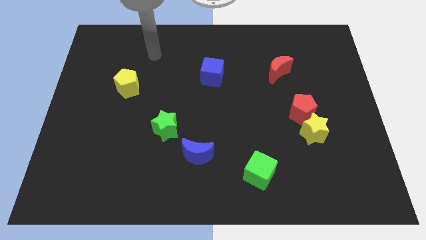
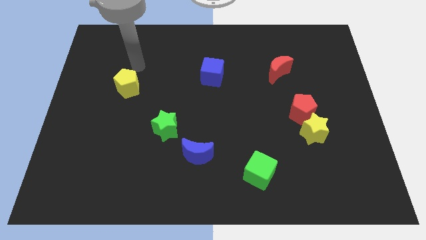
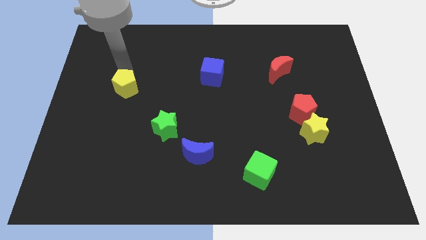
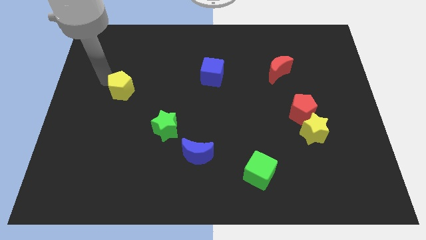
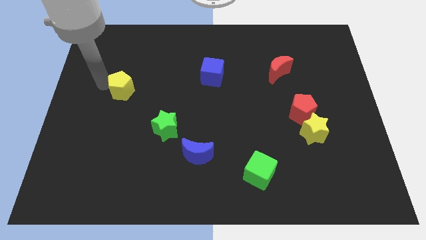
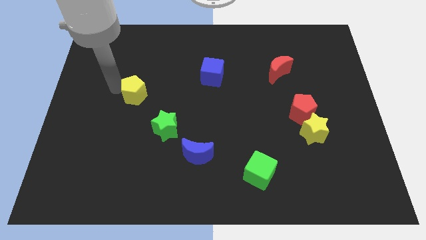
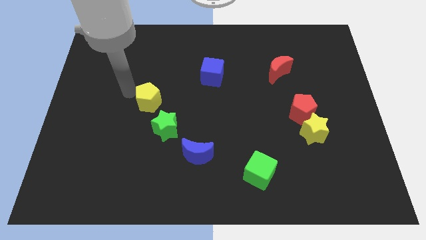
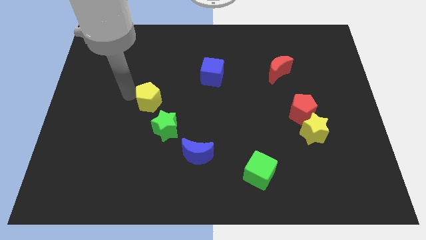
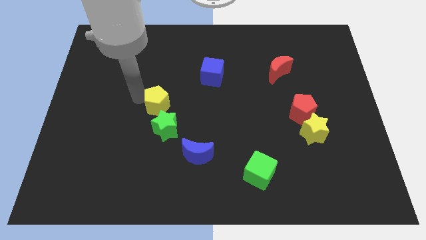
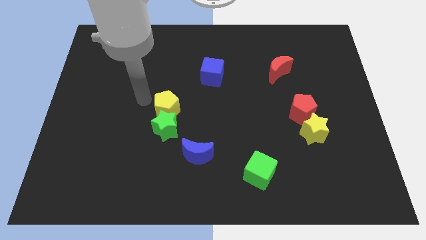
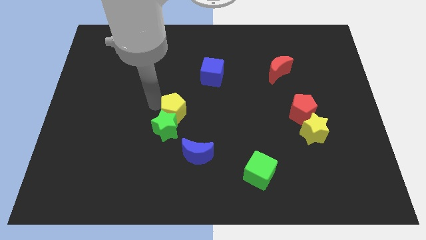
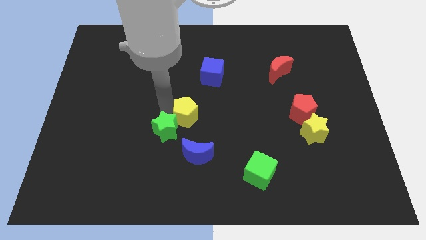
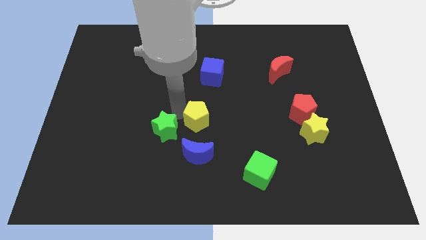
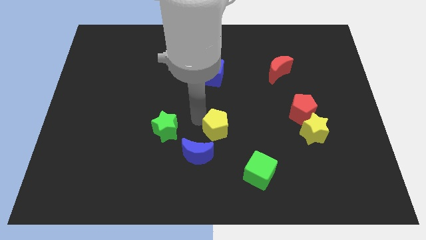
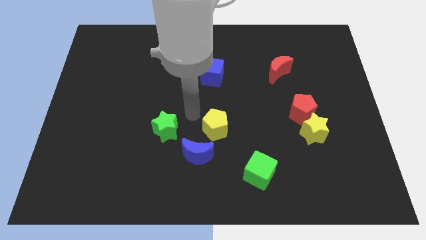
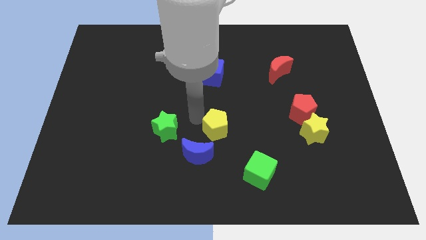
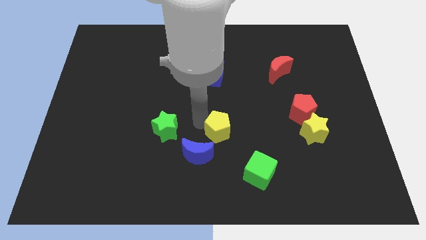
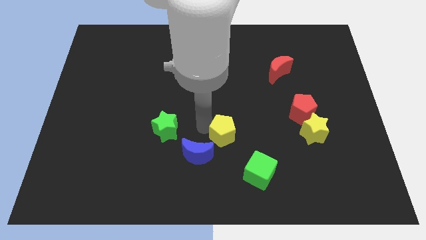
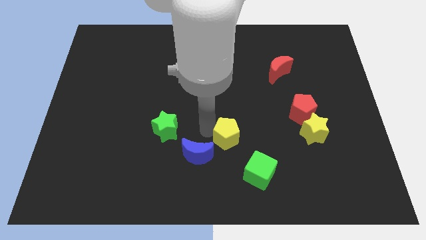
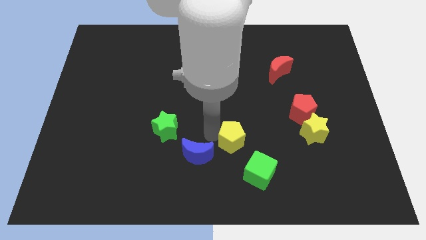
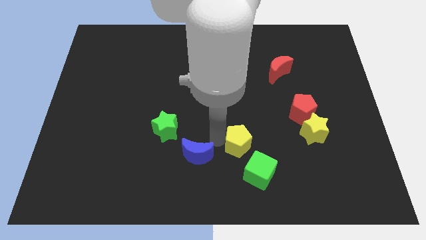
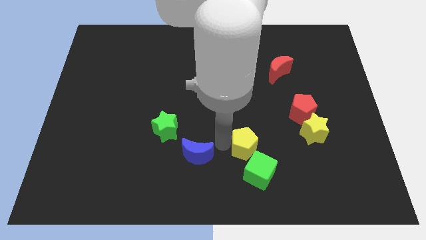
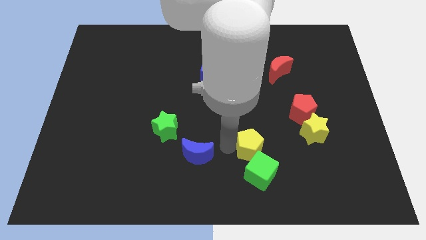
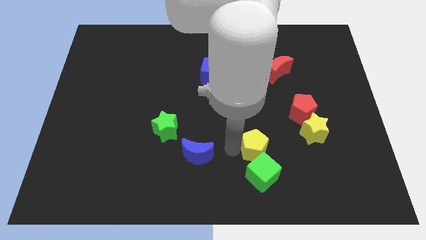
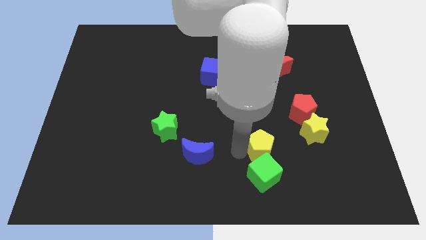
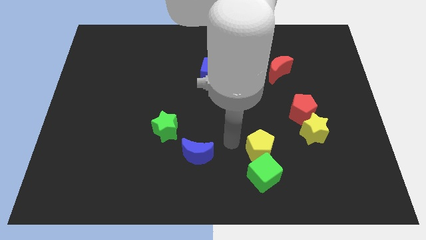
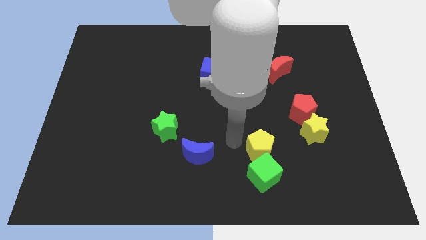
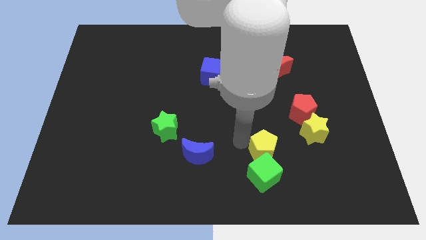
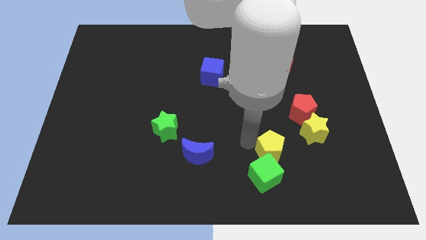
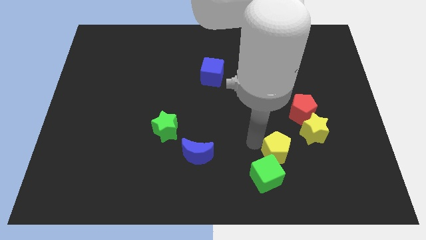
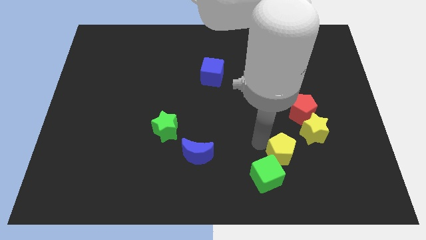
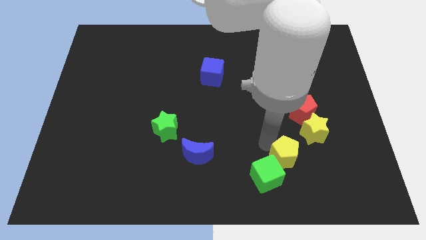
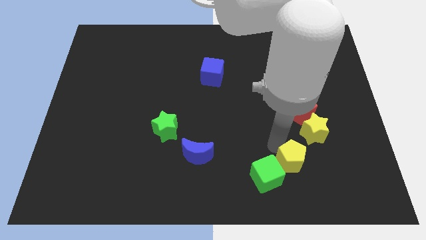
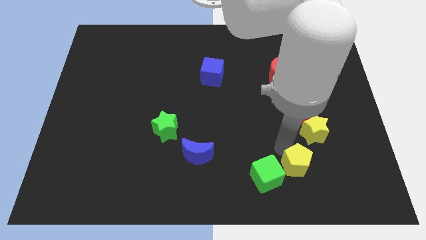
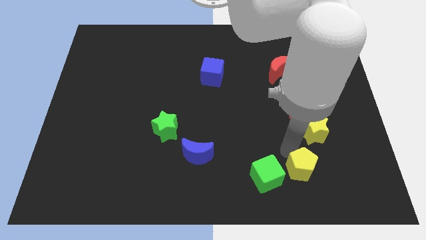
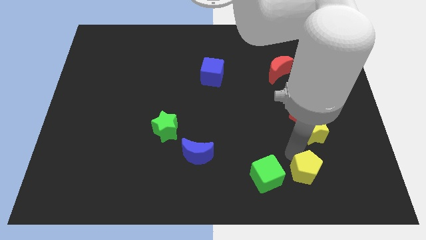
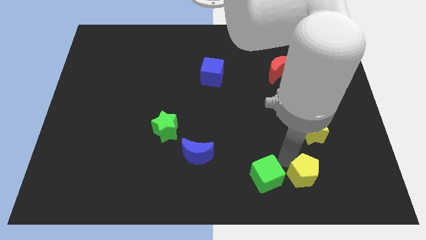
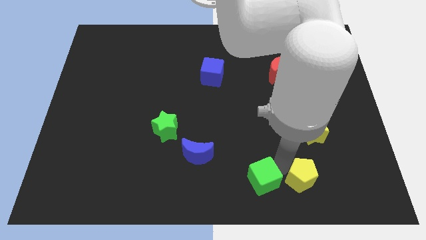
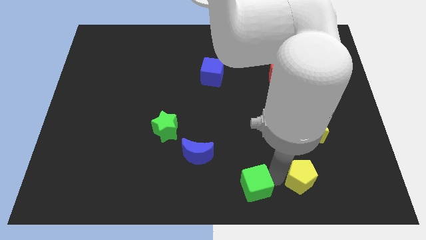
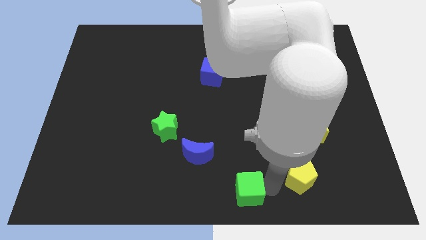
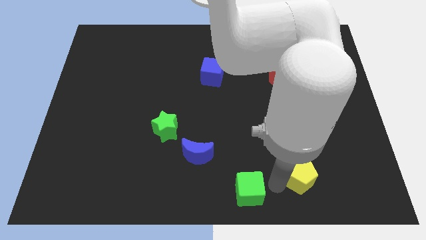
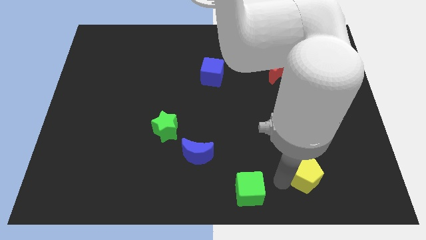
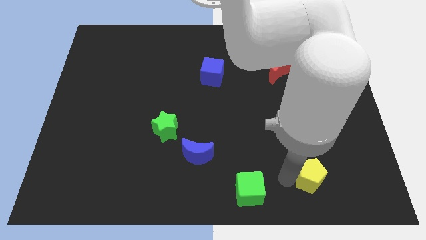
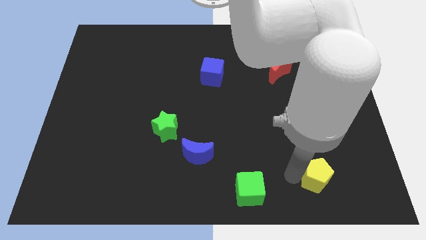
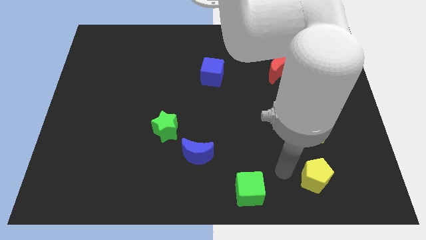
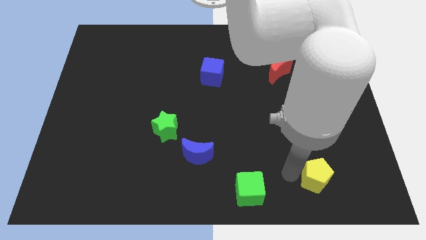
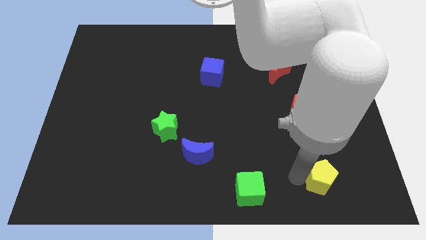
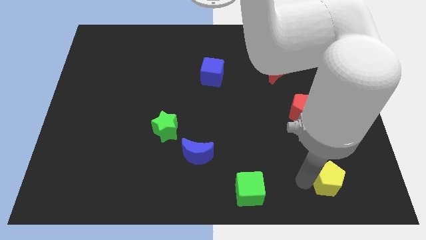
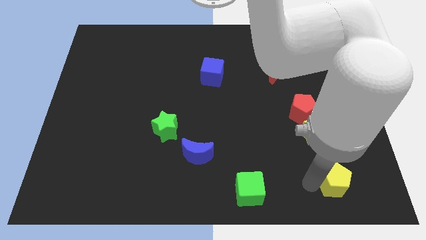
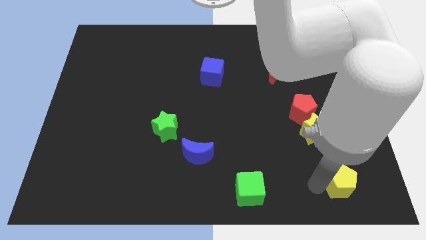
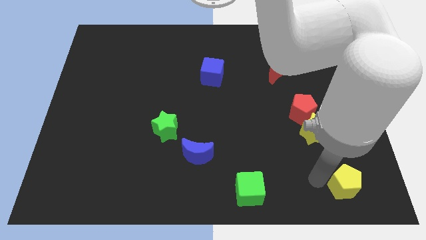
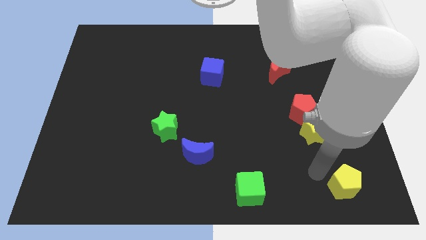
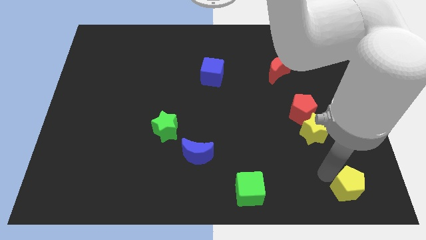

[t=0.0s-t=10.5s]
push the yellow pentagon to the lower right corner

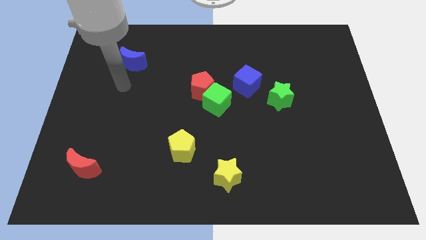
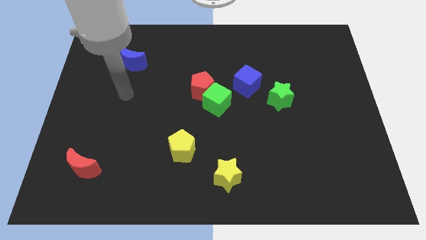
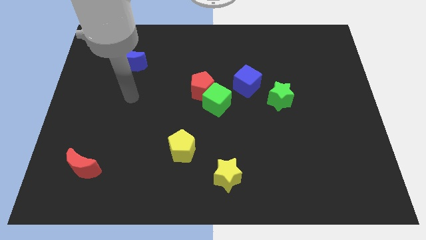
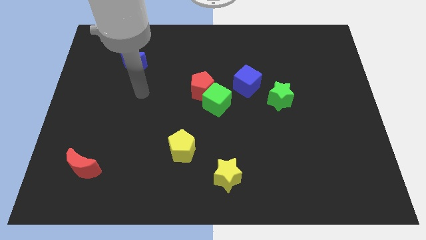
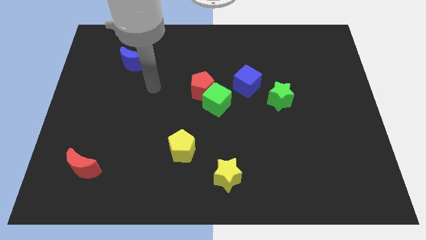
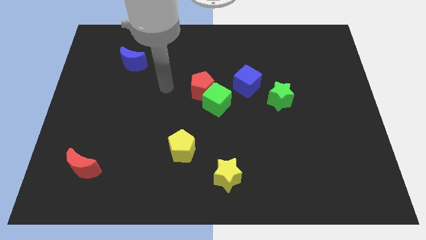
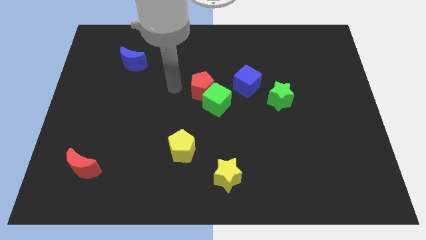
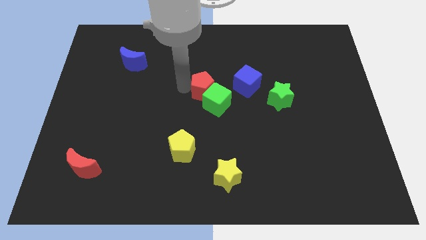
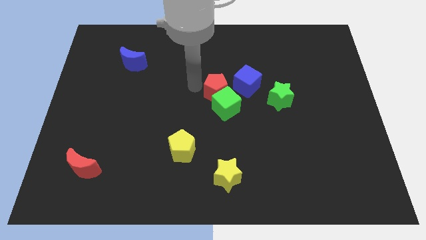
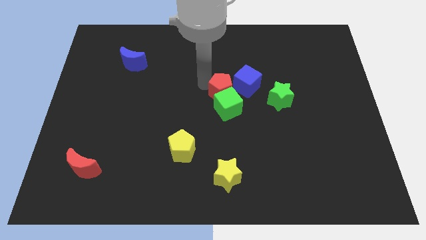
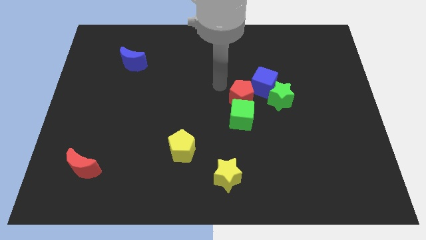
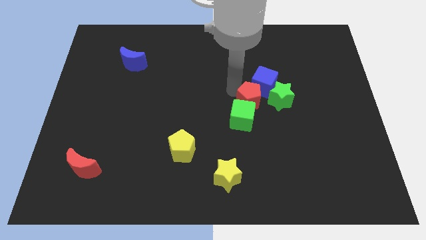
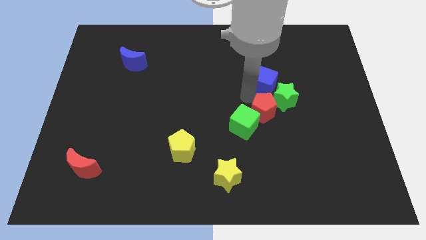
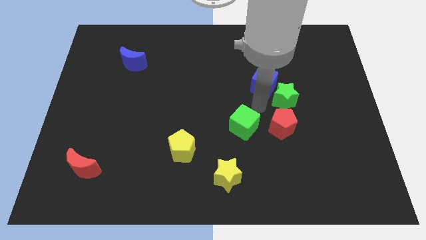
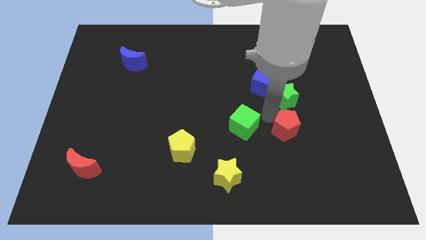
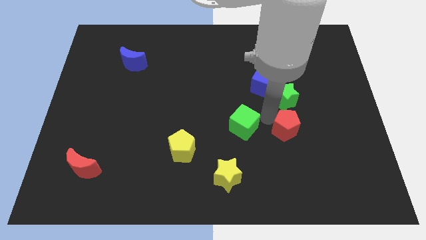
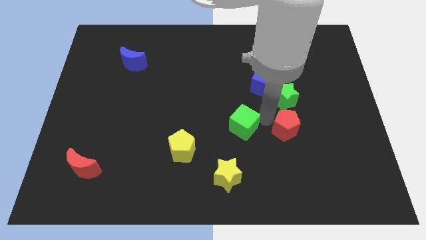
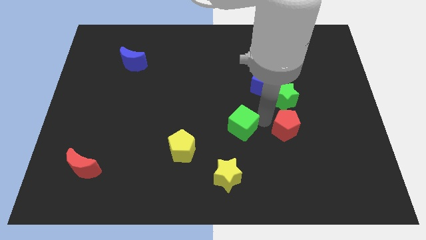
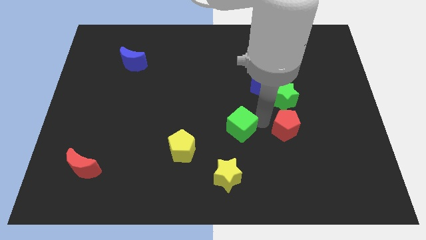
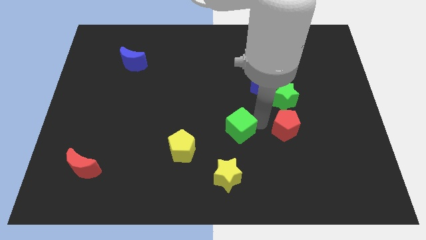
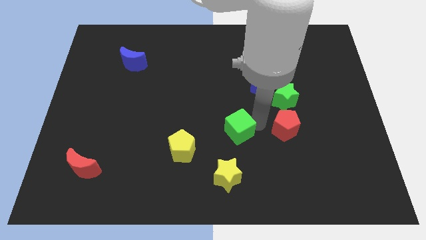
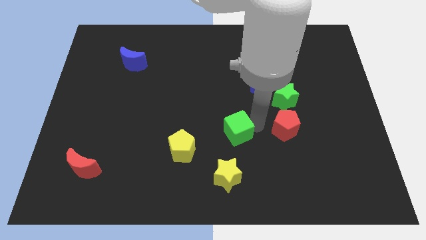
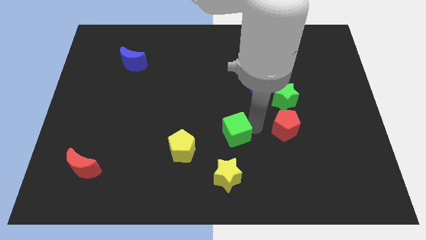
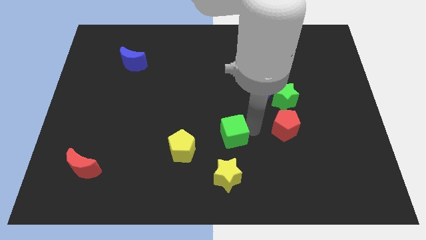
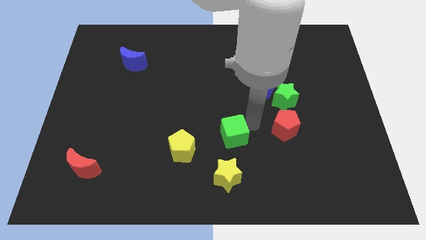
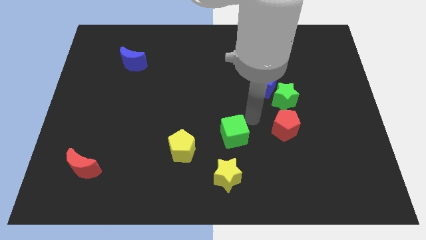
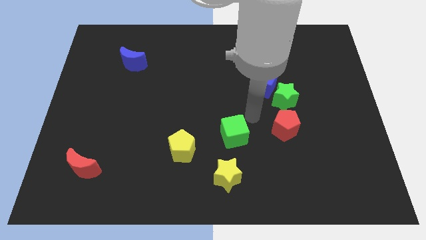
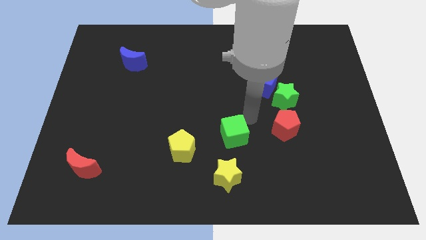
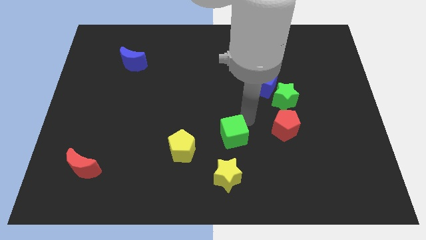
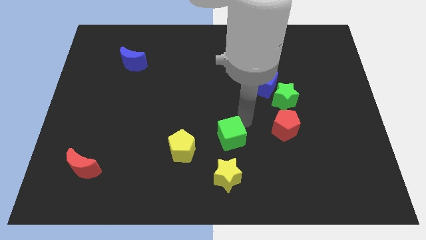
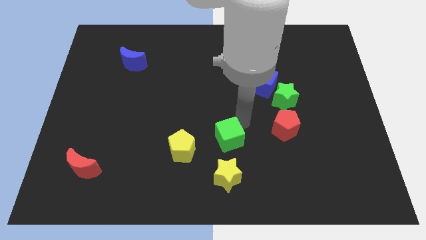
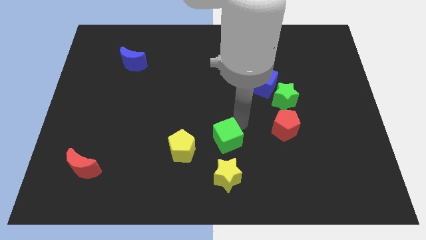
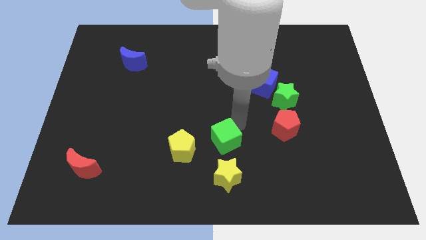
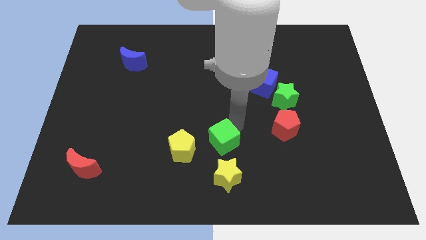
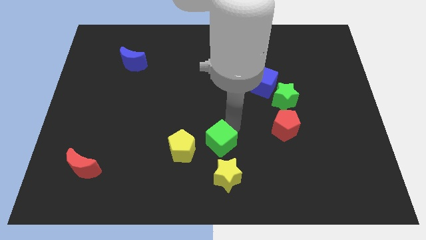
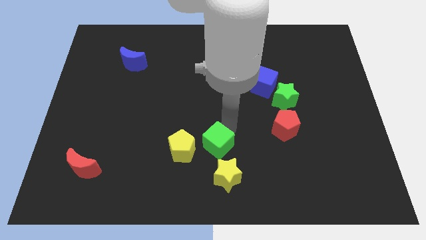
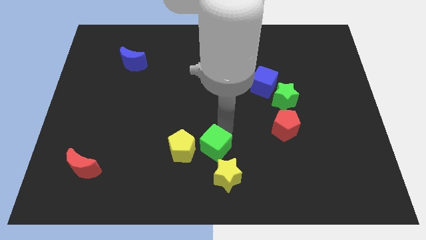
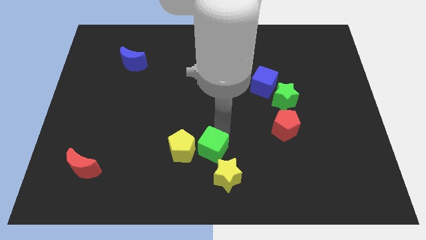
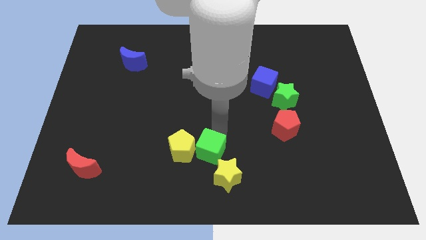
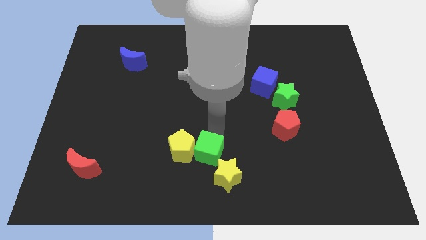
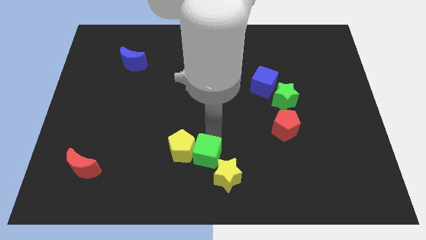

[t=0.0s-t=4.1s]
move the green cube to the bottom
